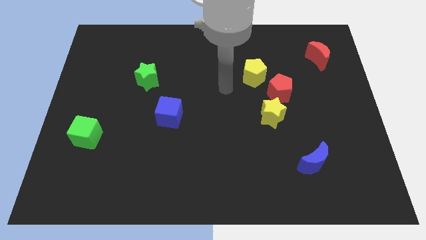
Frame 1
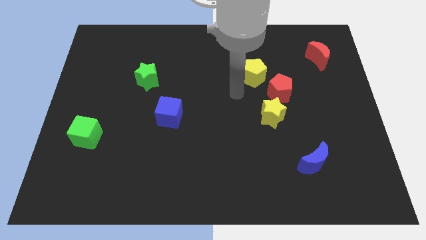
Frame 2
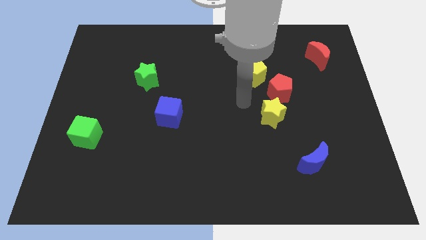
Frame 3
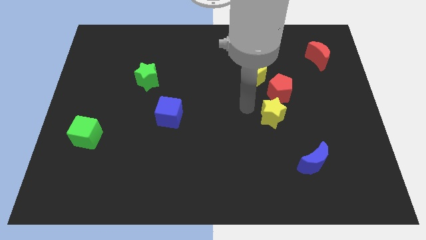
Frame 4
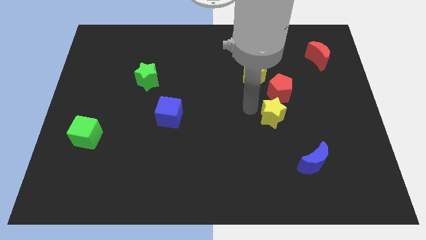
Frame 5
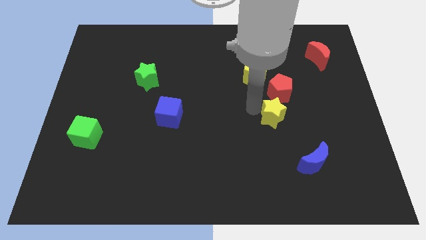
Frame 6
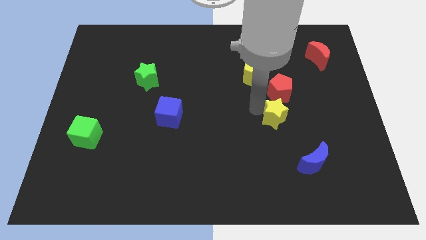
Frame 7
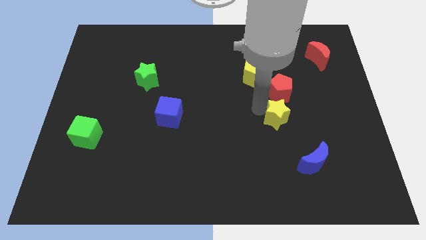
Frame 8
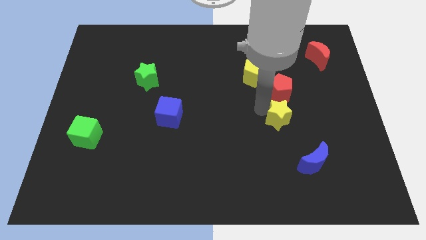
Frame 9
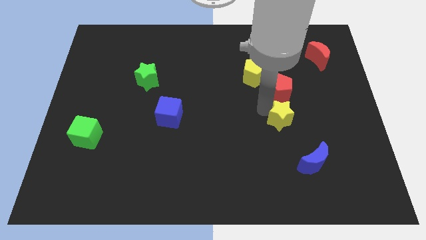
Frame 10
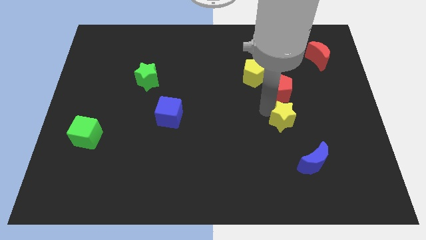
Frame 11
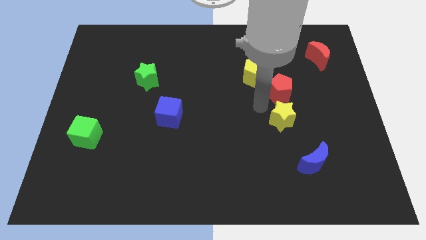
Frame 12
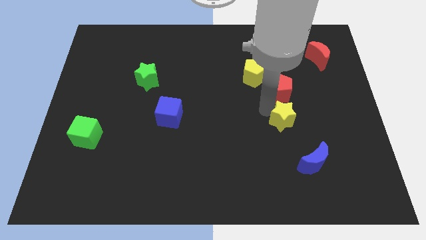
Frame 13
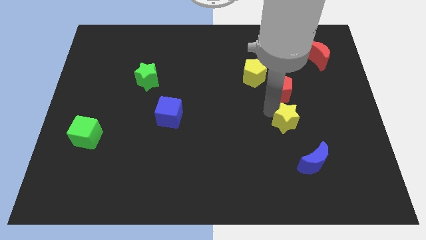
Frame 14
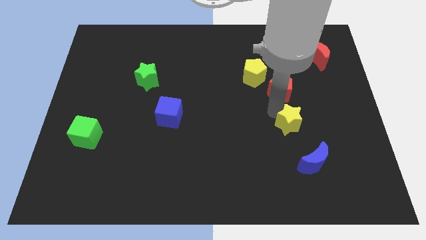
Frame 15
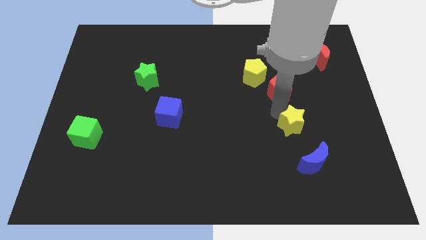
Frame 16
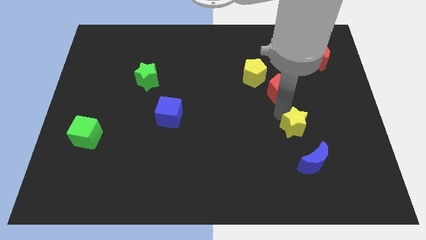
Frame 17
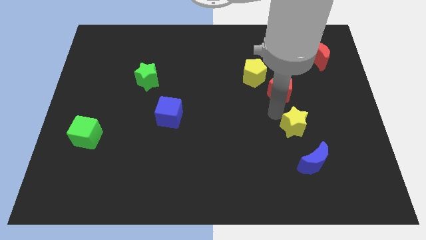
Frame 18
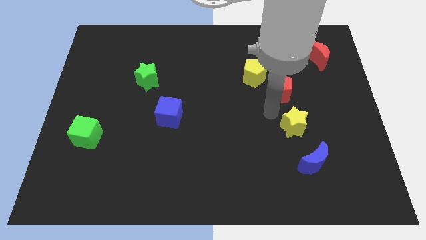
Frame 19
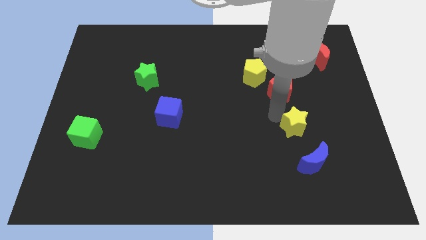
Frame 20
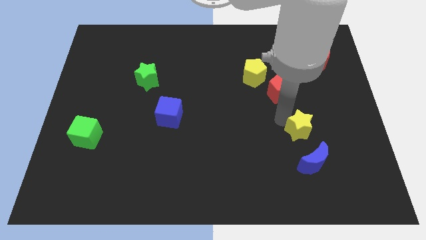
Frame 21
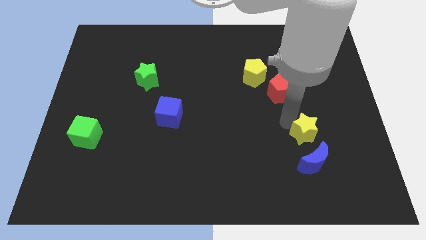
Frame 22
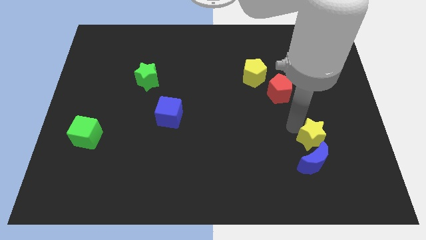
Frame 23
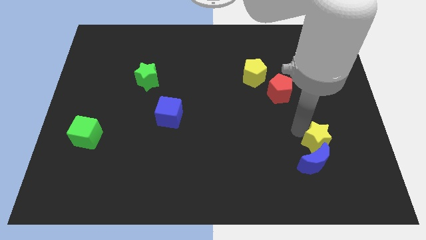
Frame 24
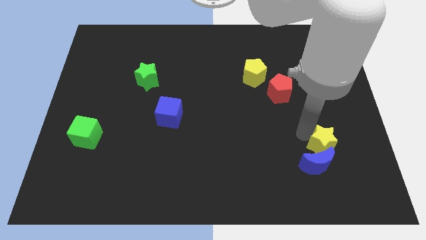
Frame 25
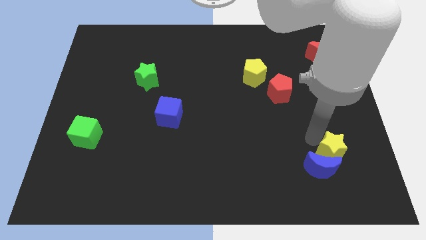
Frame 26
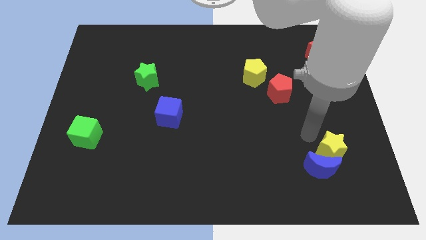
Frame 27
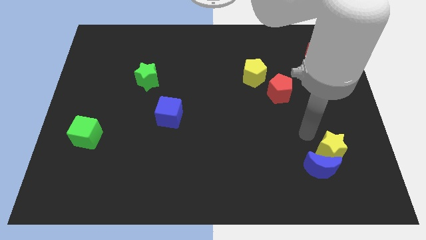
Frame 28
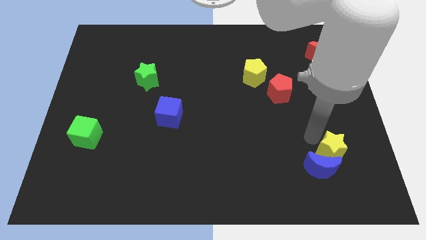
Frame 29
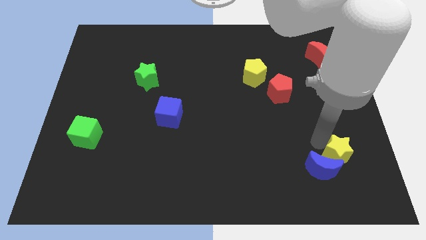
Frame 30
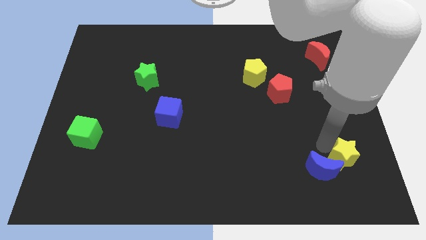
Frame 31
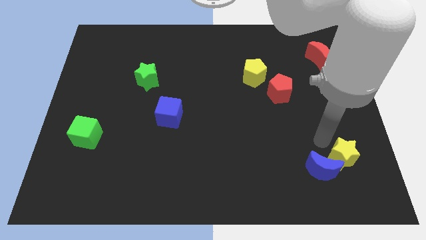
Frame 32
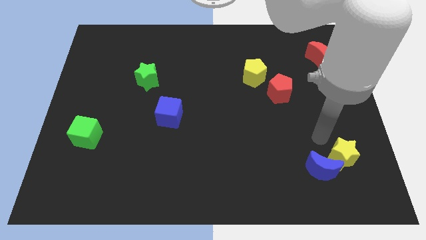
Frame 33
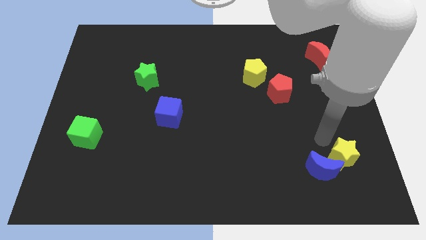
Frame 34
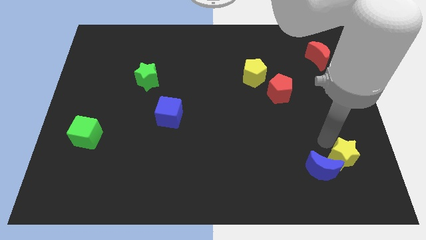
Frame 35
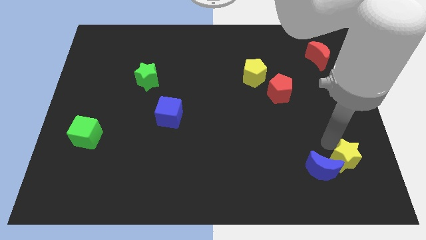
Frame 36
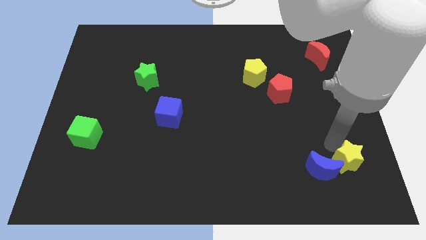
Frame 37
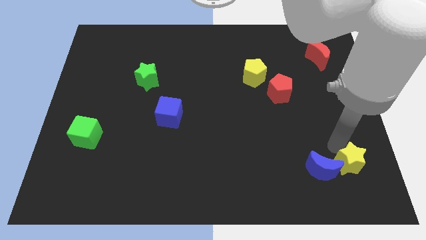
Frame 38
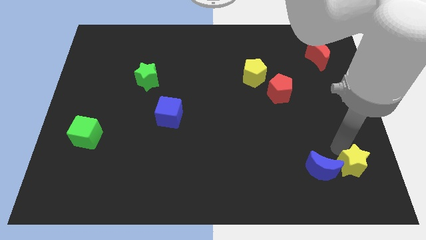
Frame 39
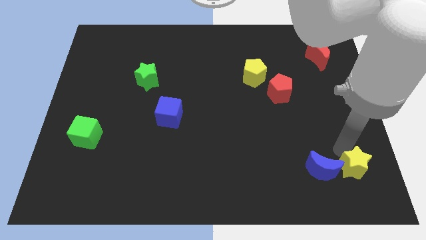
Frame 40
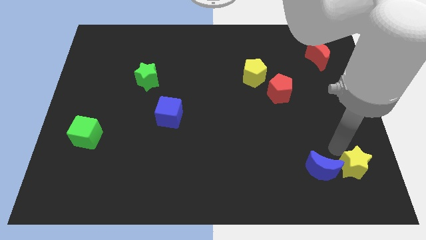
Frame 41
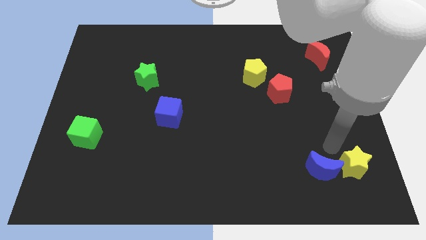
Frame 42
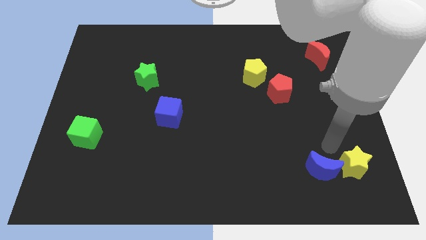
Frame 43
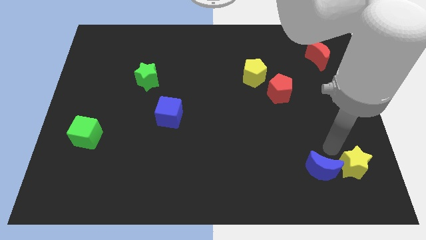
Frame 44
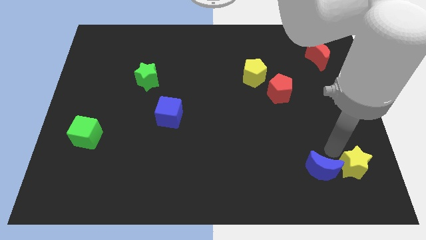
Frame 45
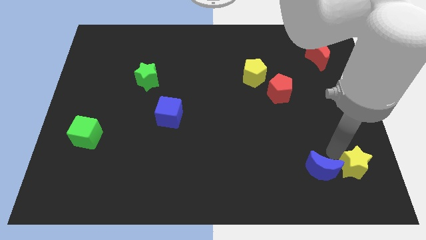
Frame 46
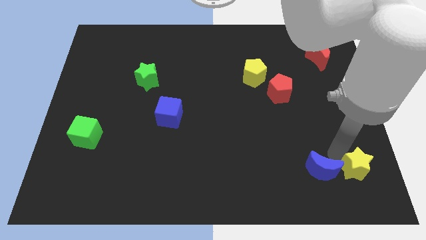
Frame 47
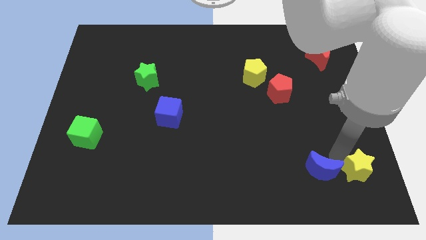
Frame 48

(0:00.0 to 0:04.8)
move the yellow star to the lower right corner

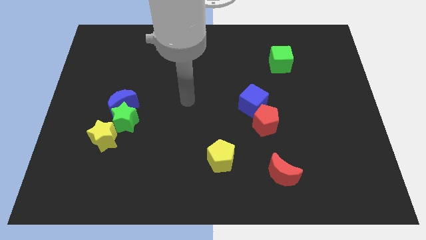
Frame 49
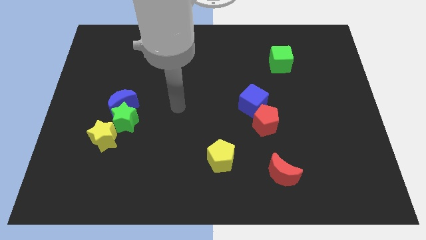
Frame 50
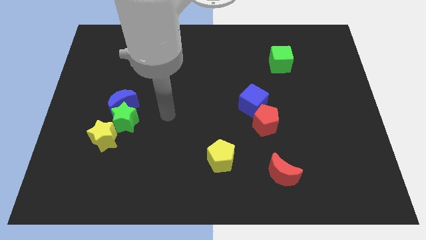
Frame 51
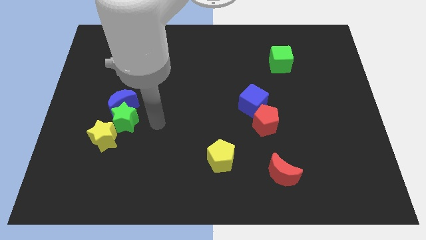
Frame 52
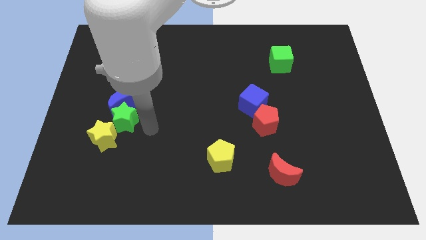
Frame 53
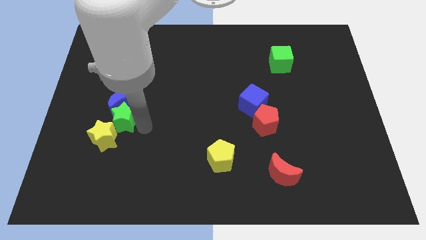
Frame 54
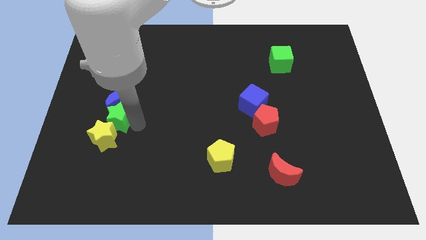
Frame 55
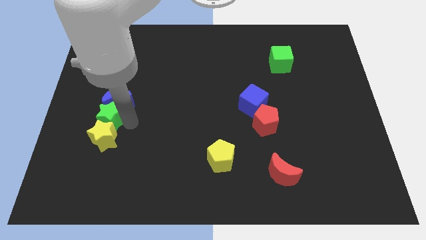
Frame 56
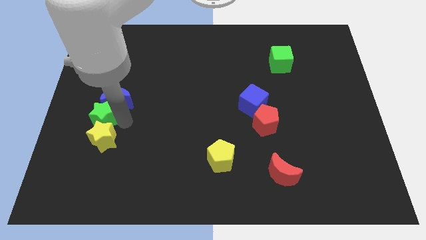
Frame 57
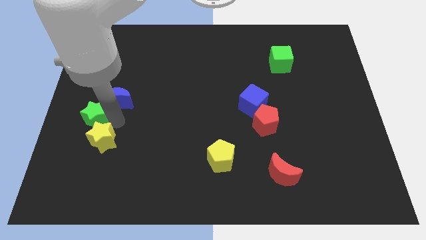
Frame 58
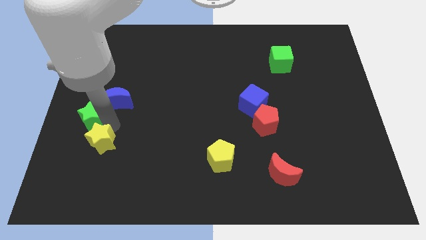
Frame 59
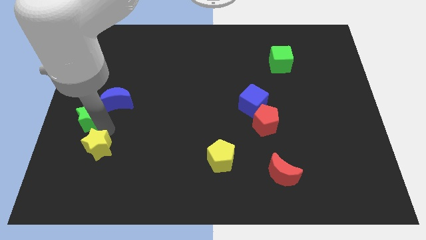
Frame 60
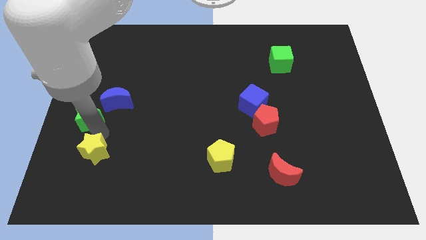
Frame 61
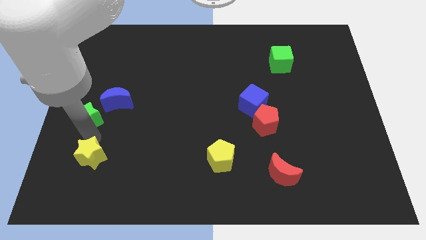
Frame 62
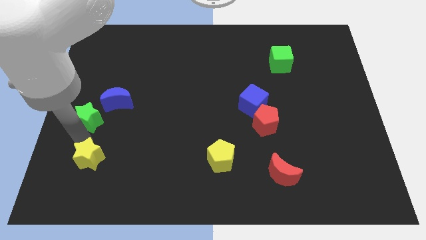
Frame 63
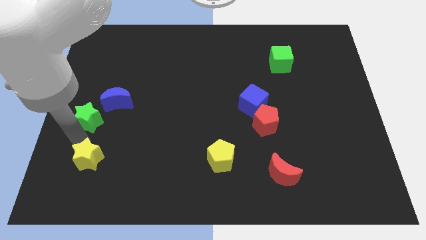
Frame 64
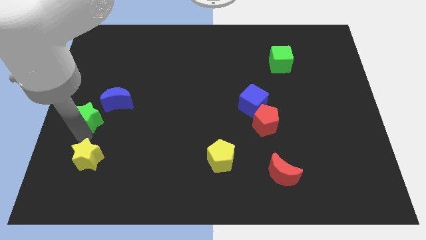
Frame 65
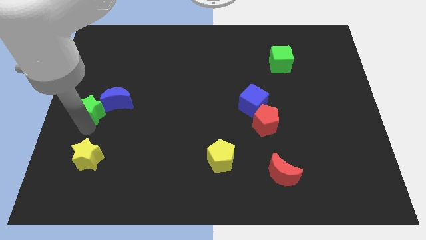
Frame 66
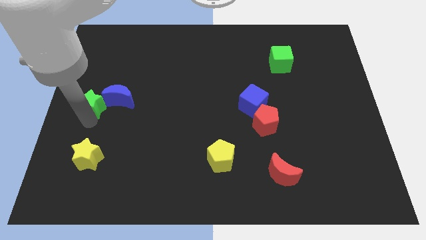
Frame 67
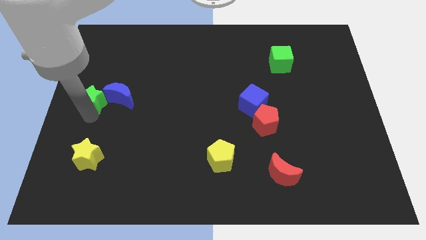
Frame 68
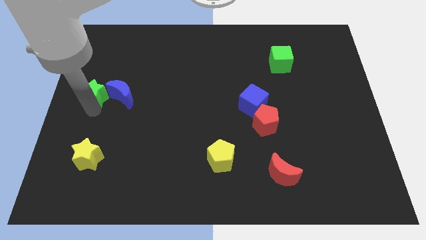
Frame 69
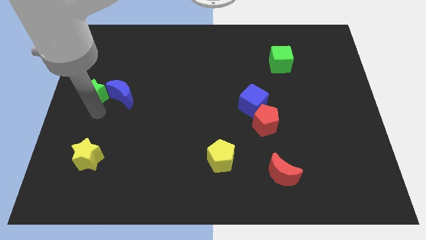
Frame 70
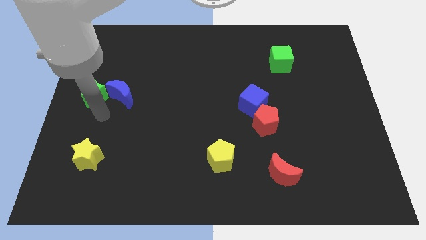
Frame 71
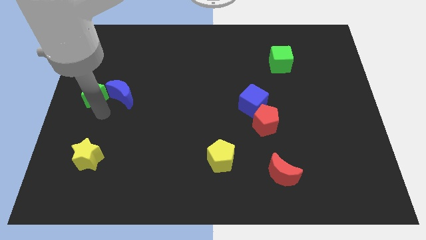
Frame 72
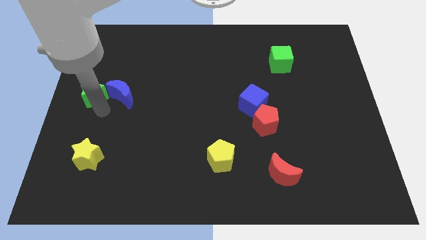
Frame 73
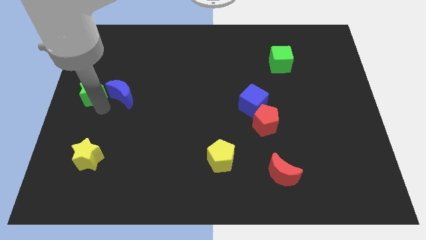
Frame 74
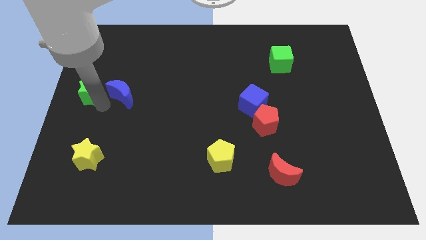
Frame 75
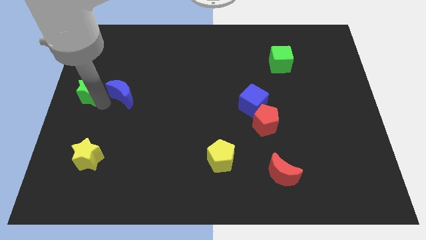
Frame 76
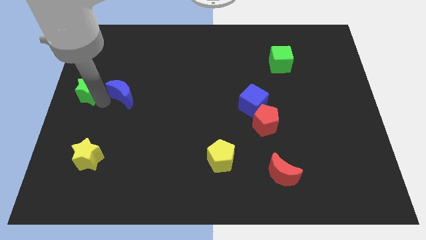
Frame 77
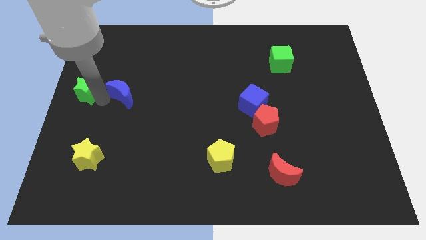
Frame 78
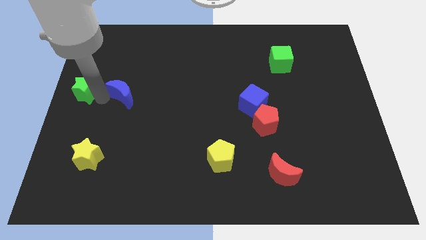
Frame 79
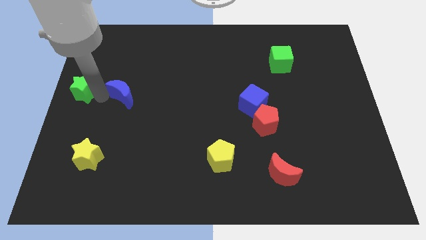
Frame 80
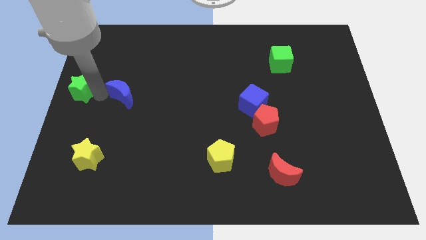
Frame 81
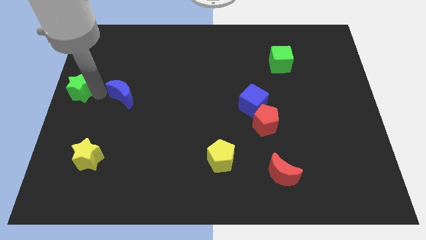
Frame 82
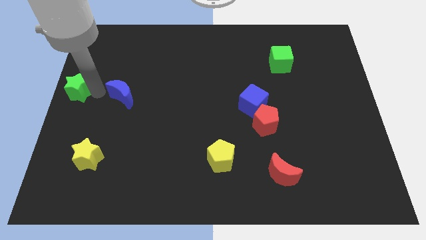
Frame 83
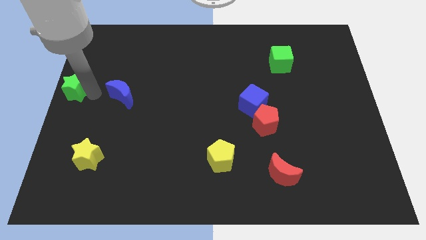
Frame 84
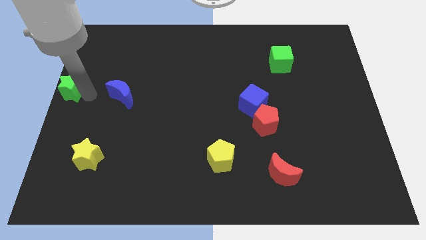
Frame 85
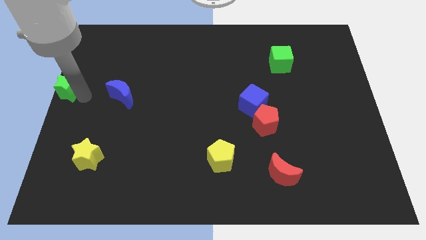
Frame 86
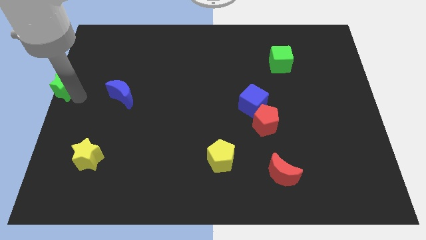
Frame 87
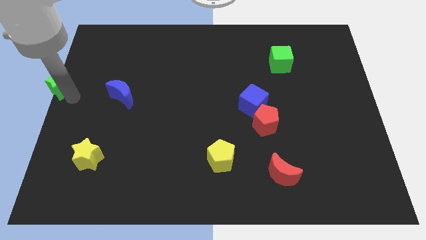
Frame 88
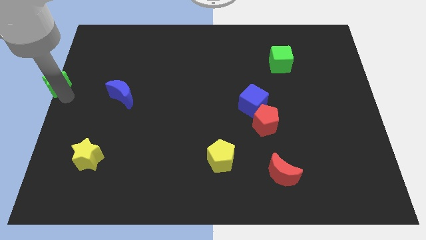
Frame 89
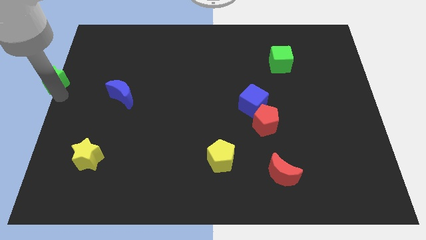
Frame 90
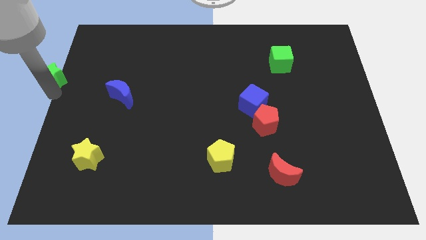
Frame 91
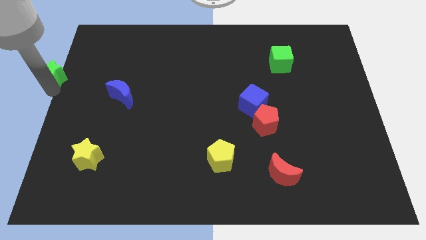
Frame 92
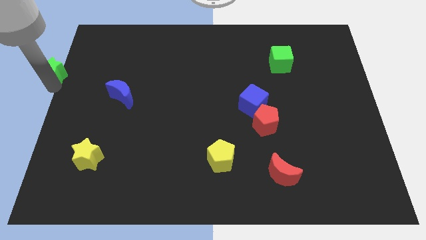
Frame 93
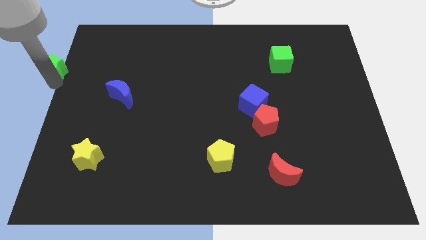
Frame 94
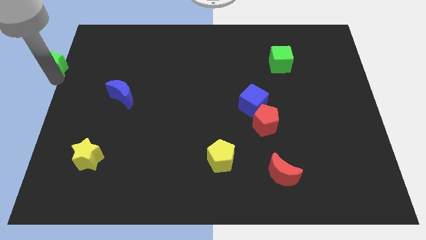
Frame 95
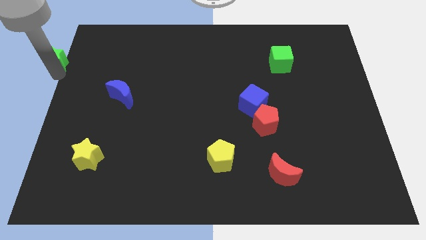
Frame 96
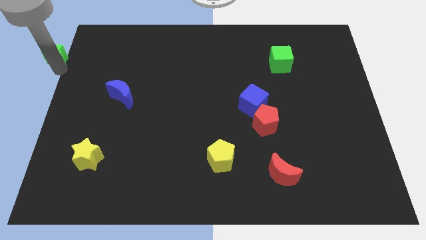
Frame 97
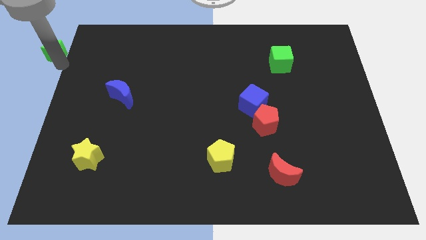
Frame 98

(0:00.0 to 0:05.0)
slide the green star to the upper left corner
